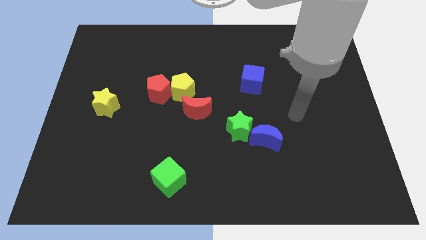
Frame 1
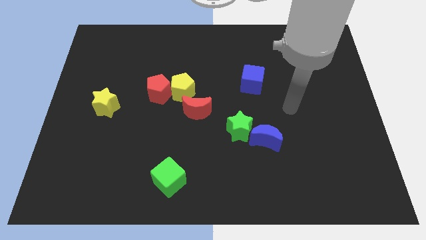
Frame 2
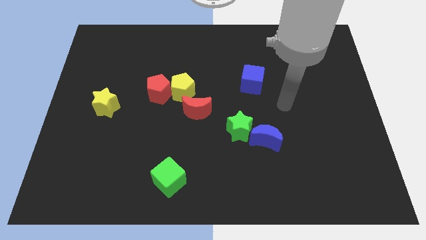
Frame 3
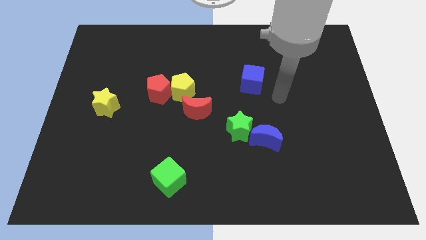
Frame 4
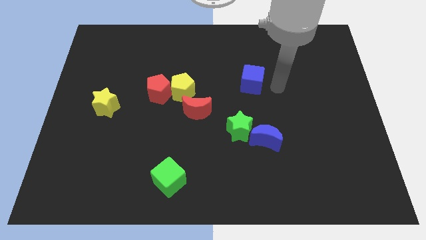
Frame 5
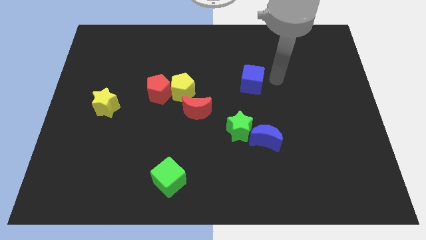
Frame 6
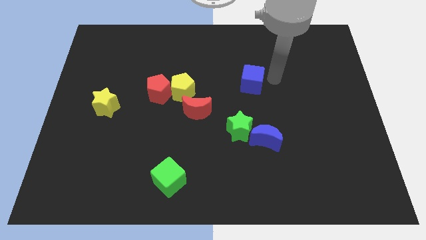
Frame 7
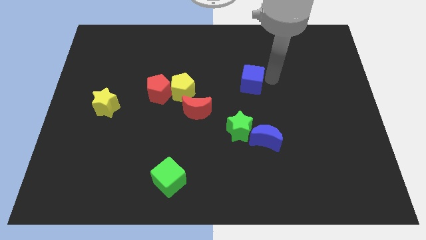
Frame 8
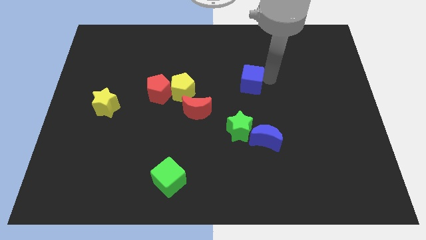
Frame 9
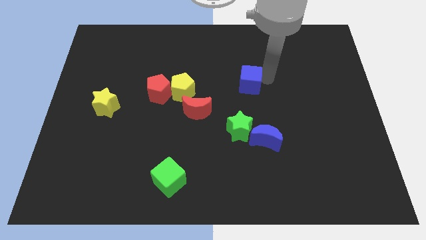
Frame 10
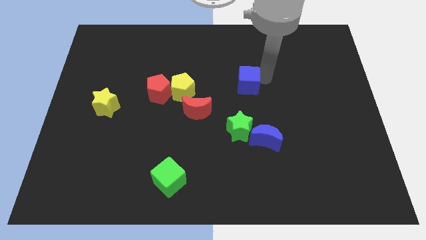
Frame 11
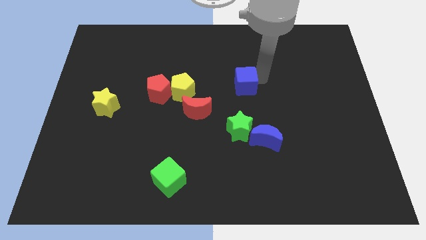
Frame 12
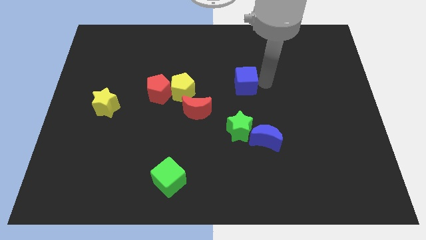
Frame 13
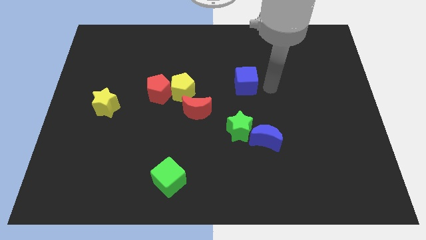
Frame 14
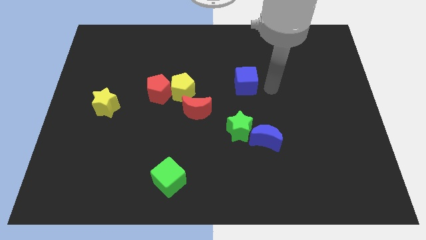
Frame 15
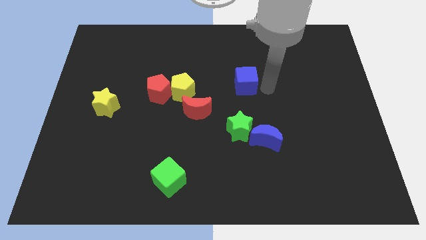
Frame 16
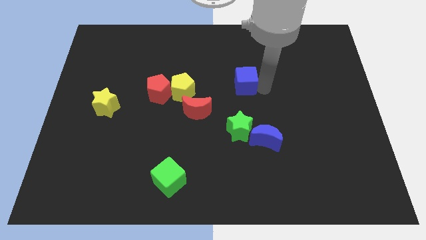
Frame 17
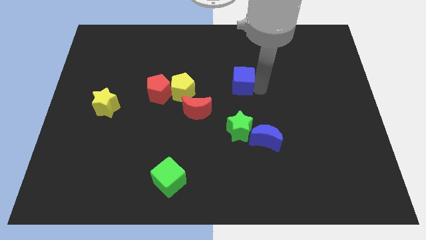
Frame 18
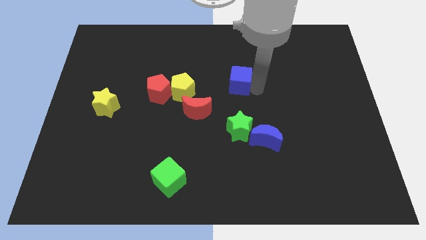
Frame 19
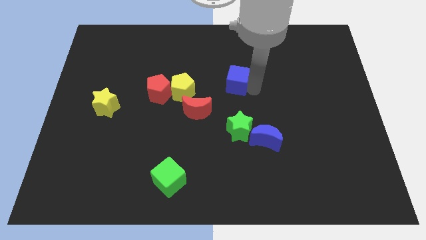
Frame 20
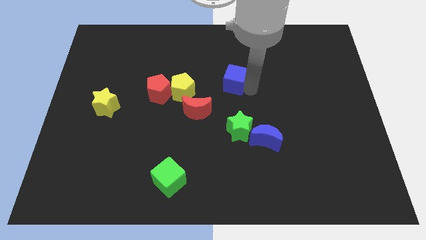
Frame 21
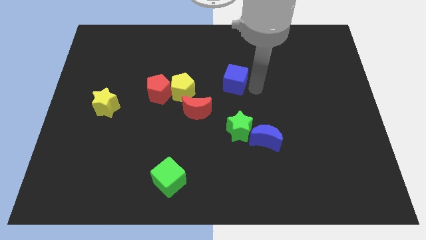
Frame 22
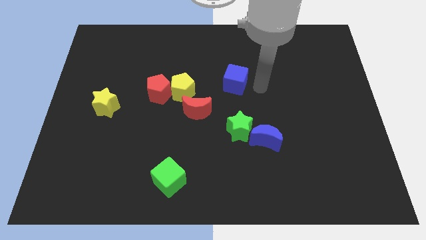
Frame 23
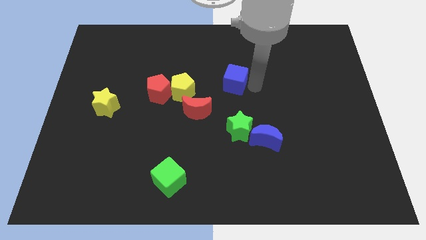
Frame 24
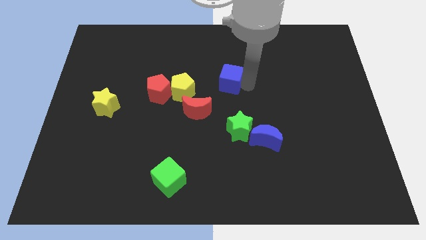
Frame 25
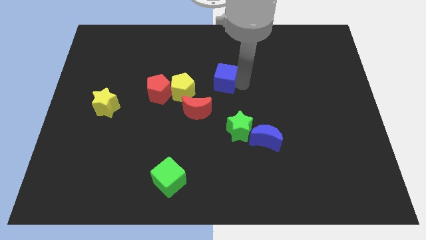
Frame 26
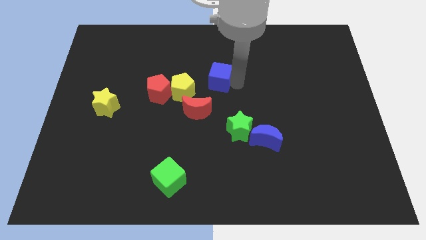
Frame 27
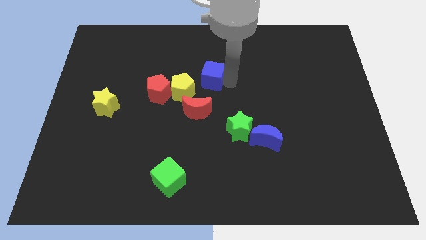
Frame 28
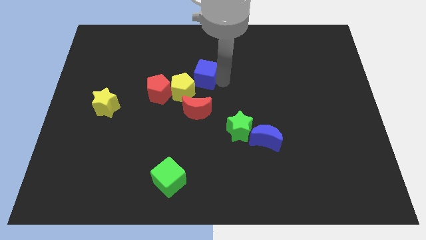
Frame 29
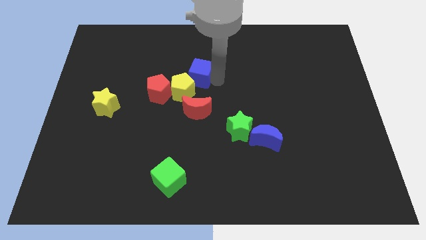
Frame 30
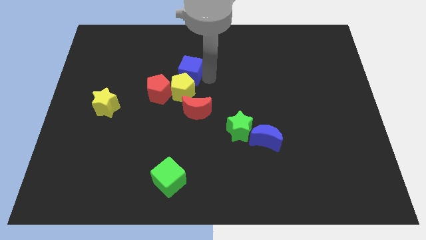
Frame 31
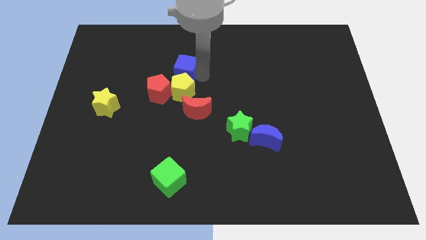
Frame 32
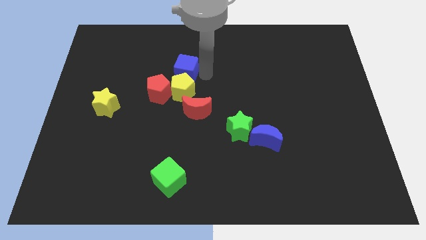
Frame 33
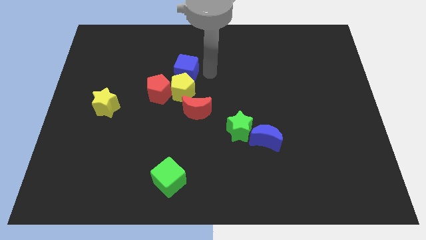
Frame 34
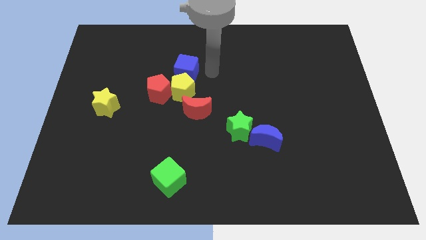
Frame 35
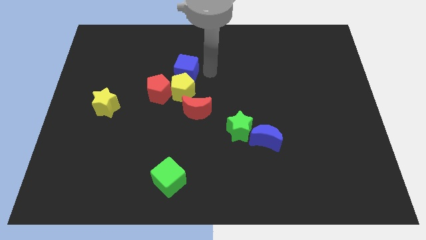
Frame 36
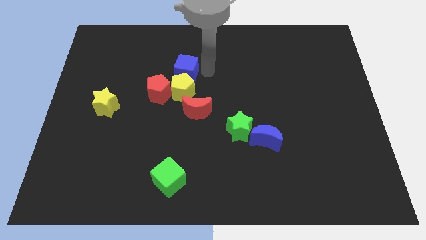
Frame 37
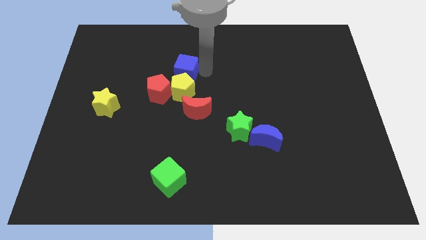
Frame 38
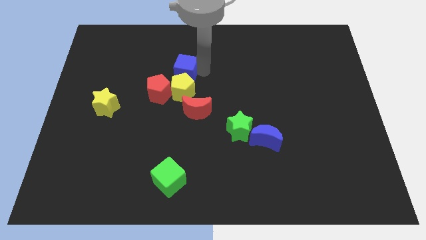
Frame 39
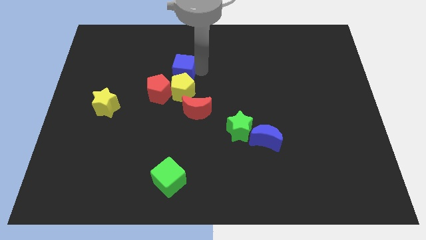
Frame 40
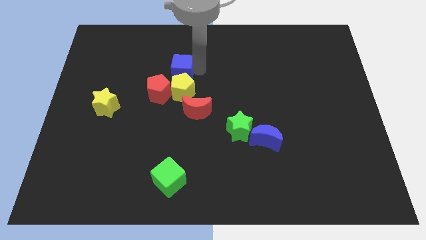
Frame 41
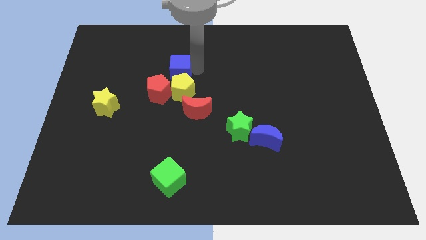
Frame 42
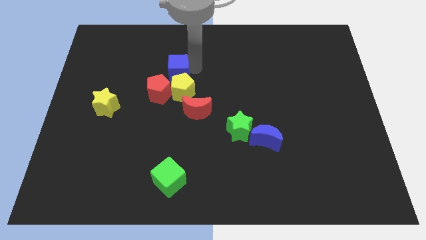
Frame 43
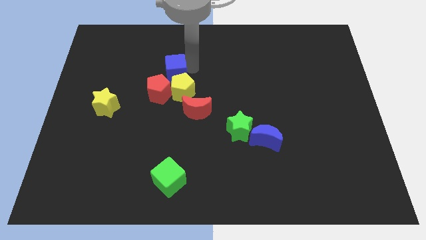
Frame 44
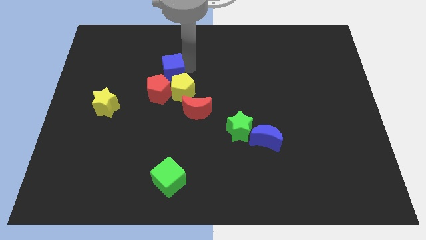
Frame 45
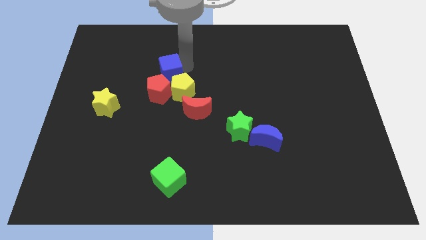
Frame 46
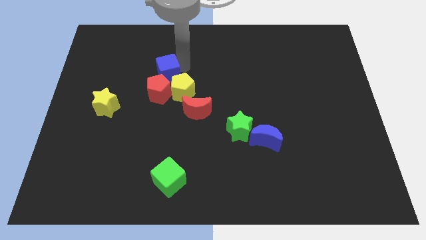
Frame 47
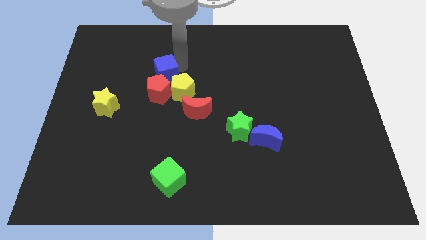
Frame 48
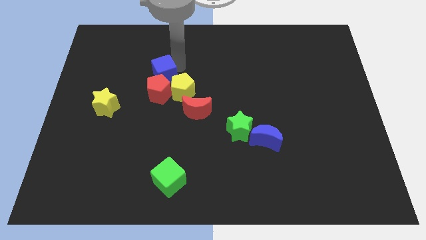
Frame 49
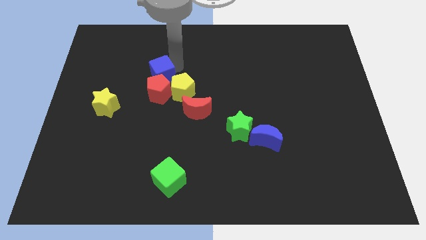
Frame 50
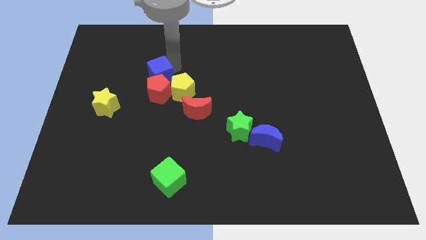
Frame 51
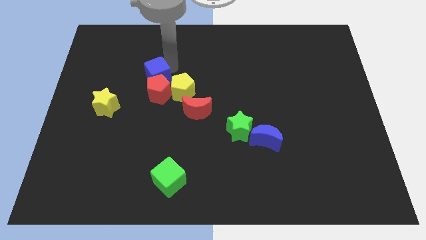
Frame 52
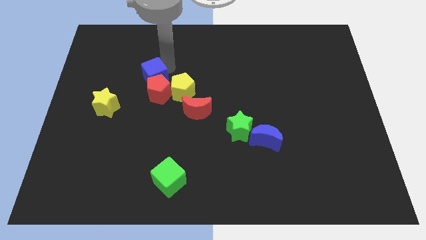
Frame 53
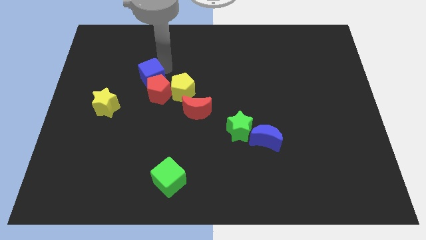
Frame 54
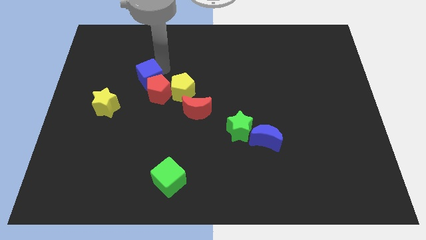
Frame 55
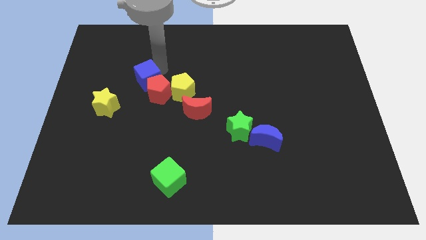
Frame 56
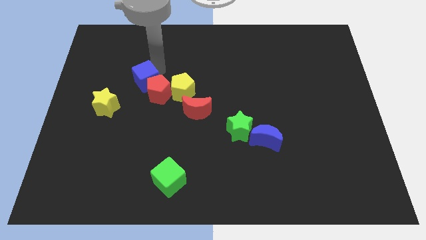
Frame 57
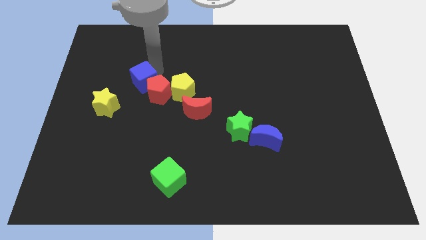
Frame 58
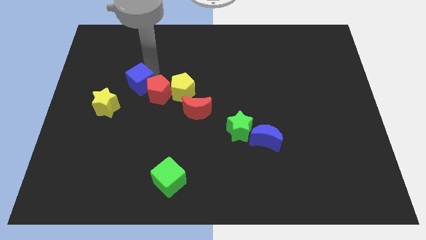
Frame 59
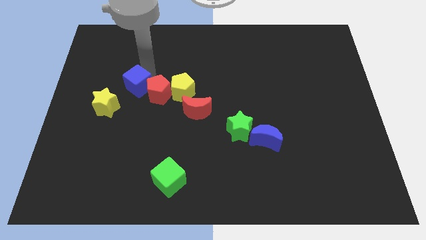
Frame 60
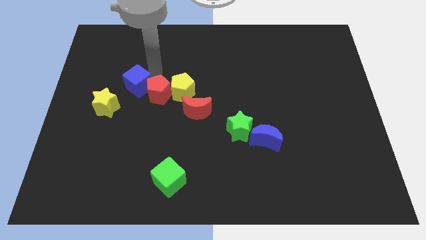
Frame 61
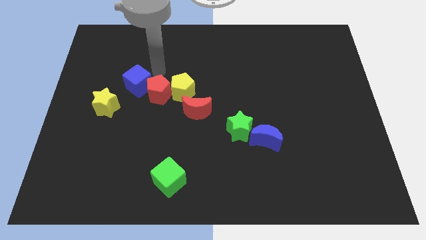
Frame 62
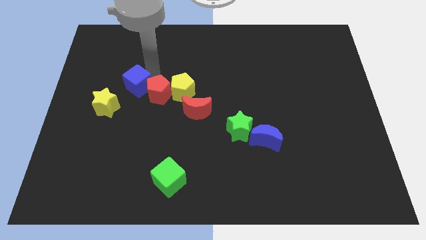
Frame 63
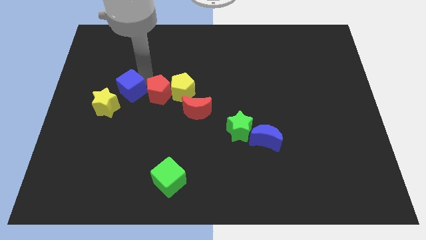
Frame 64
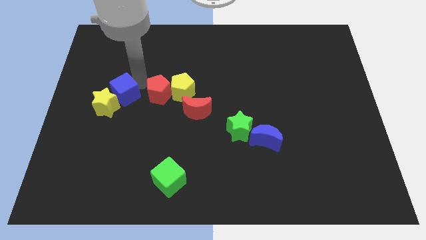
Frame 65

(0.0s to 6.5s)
move the blue cube next to the yellow star

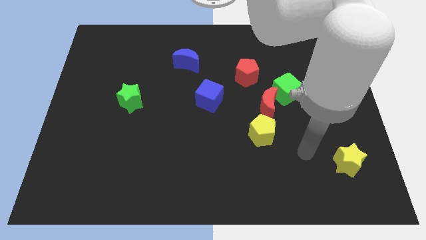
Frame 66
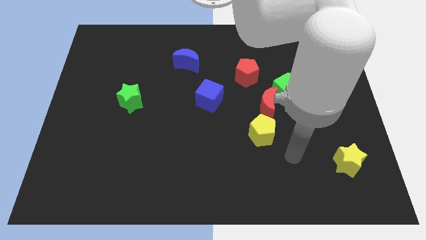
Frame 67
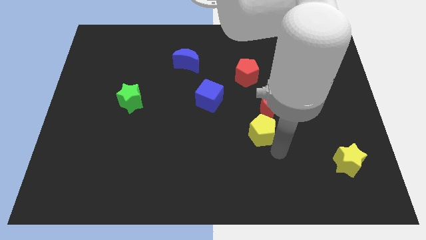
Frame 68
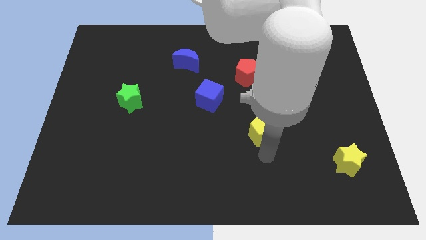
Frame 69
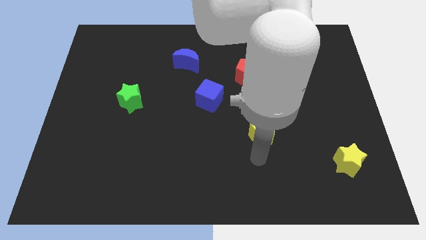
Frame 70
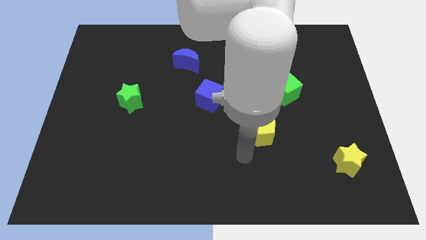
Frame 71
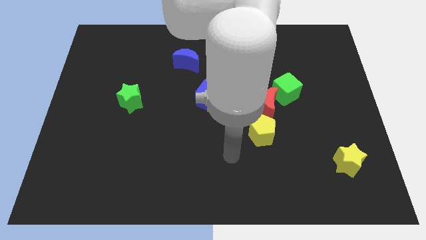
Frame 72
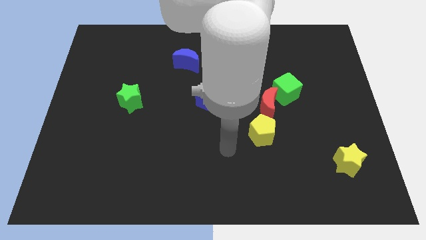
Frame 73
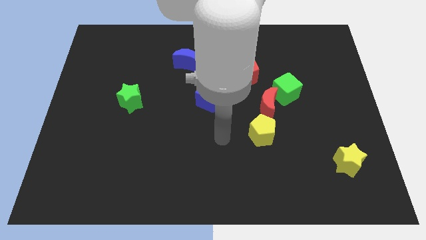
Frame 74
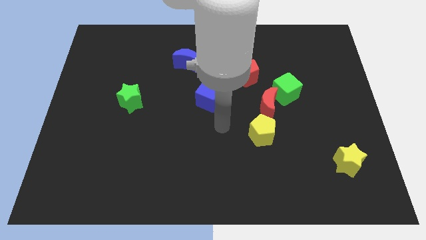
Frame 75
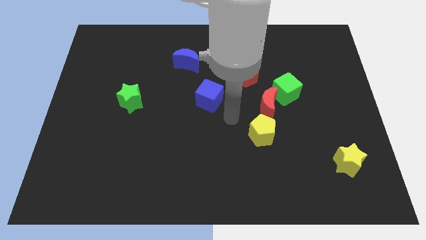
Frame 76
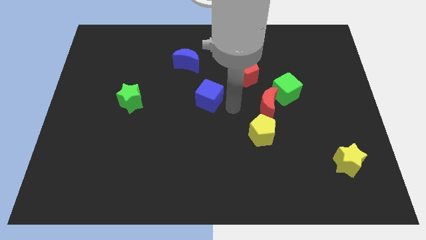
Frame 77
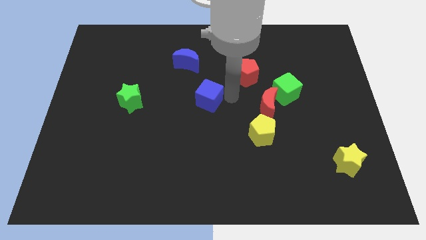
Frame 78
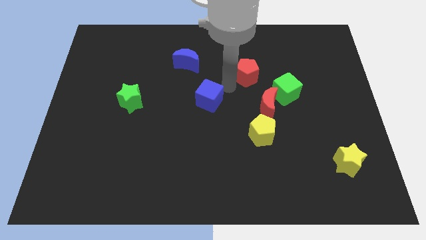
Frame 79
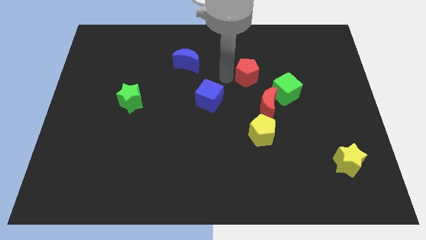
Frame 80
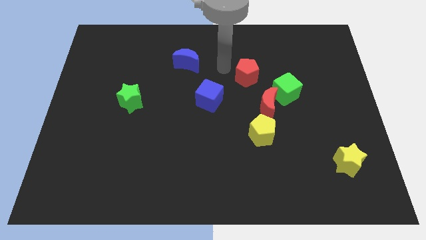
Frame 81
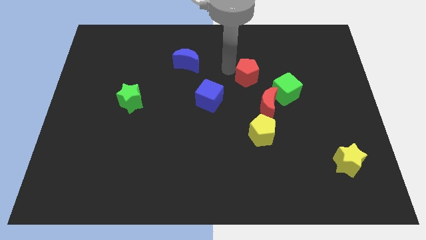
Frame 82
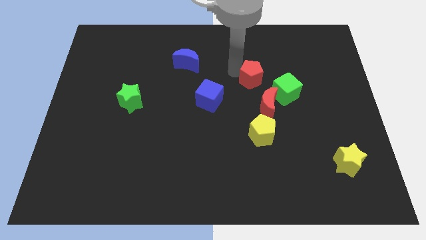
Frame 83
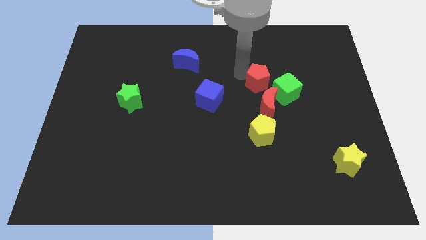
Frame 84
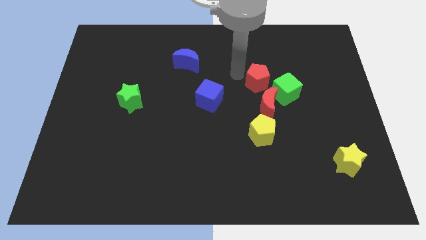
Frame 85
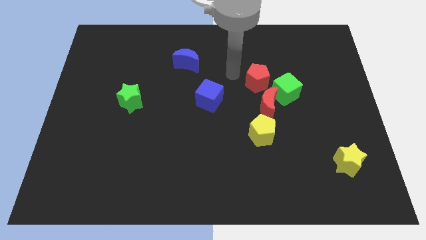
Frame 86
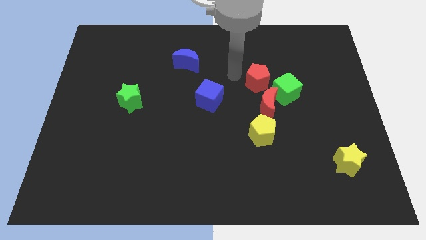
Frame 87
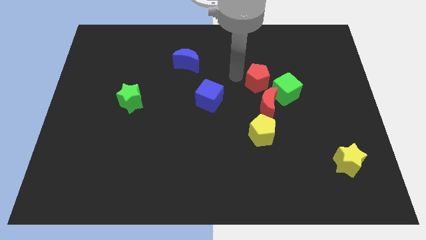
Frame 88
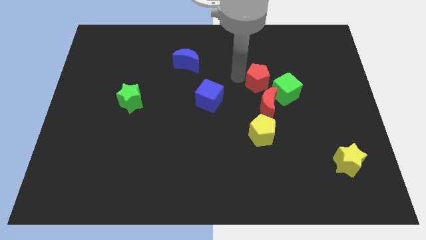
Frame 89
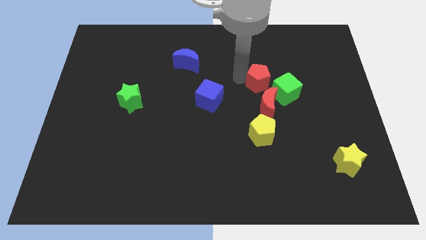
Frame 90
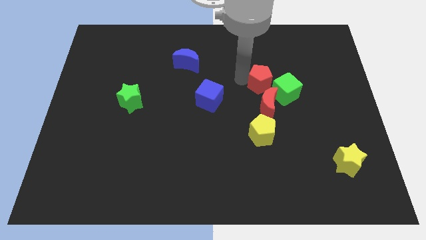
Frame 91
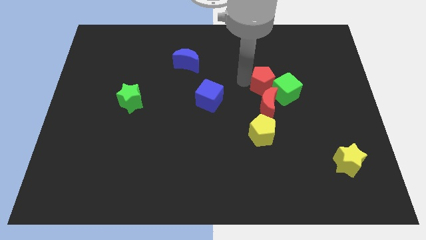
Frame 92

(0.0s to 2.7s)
slide the red pentagon close to the green cube
